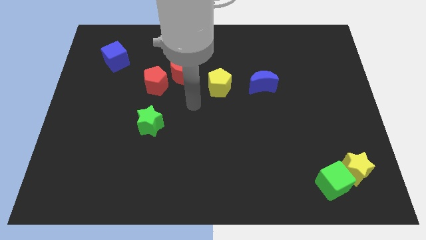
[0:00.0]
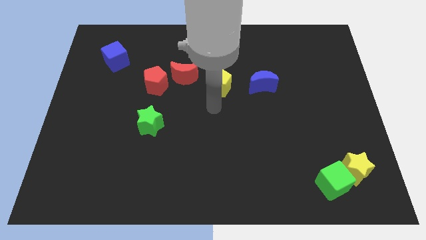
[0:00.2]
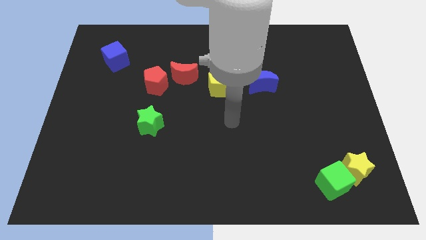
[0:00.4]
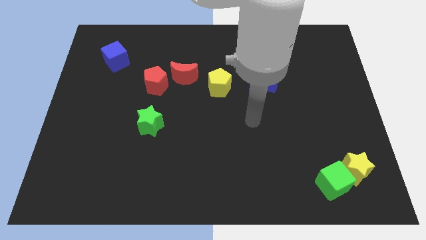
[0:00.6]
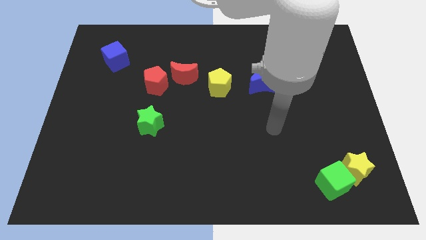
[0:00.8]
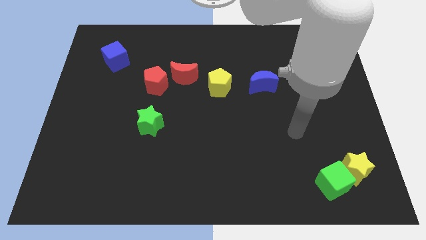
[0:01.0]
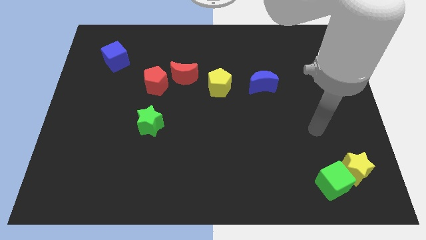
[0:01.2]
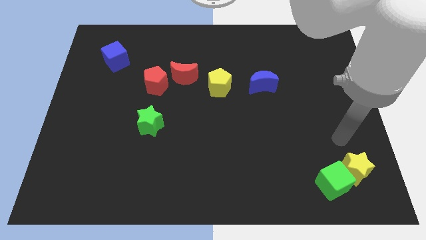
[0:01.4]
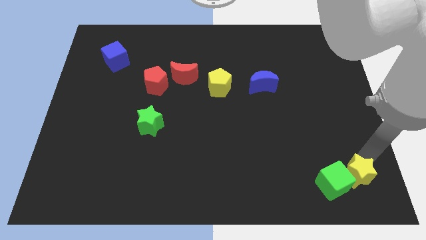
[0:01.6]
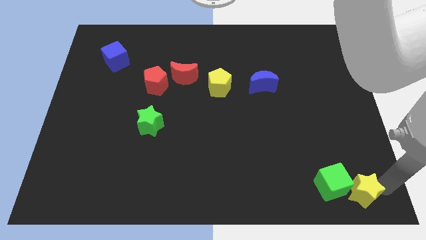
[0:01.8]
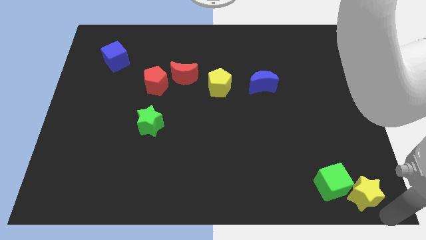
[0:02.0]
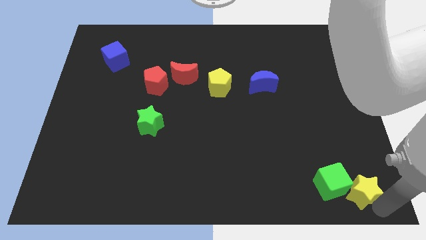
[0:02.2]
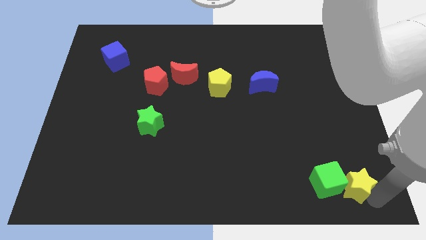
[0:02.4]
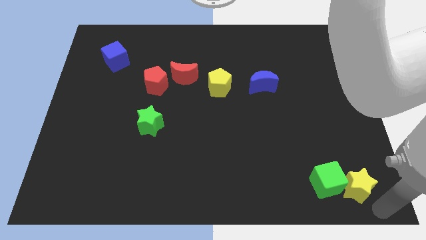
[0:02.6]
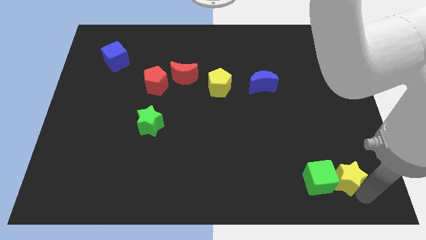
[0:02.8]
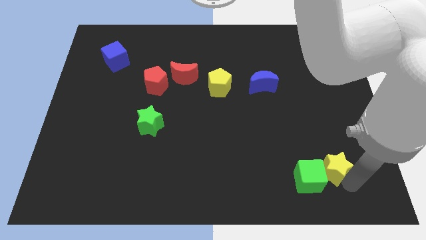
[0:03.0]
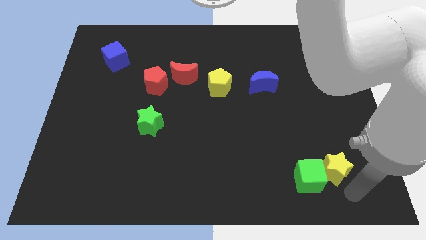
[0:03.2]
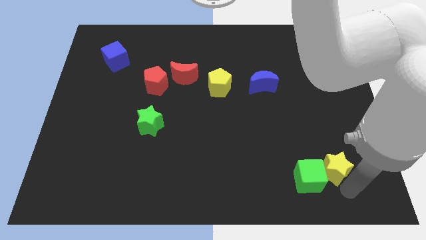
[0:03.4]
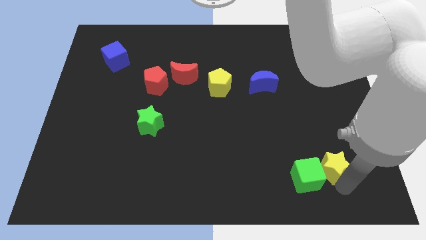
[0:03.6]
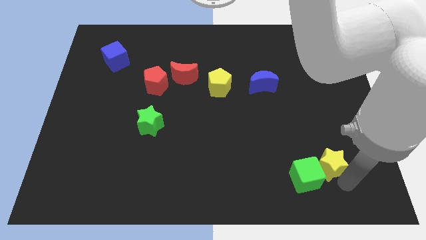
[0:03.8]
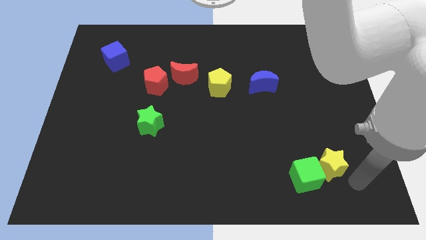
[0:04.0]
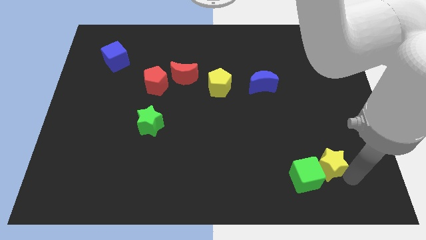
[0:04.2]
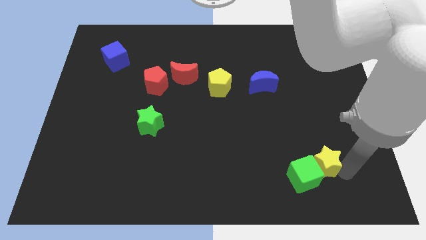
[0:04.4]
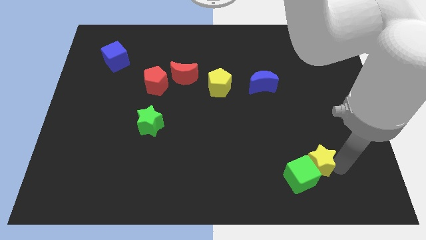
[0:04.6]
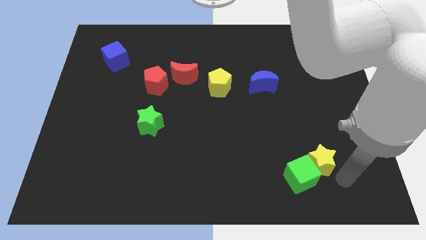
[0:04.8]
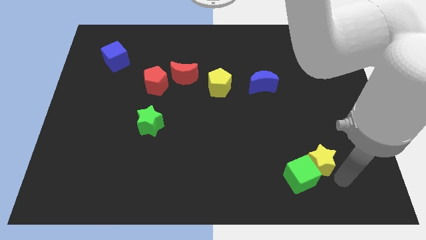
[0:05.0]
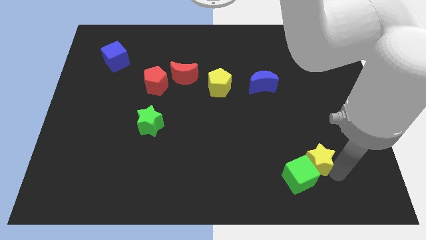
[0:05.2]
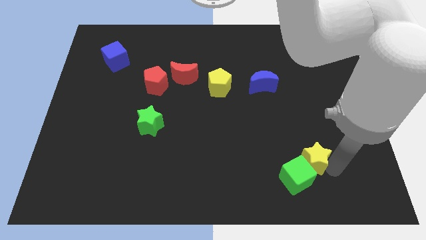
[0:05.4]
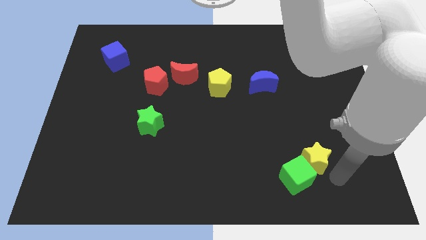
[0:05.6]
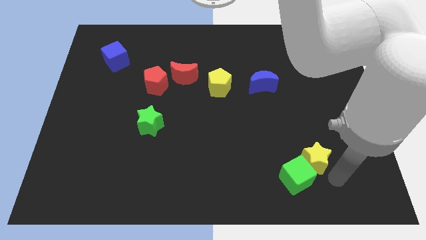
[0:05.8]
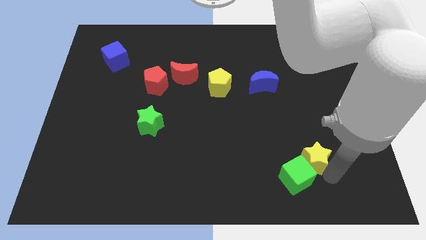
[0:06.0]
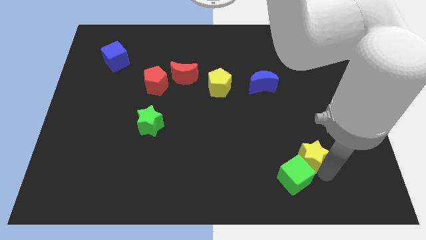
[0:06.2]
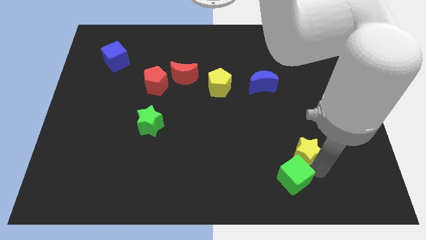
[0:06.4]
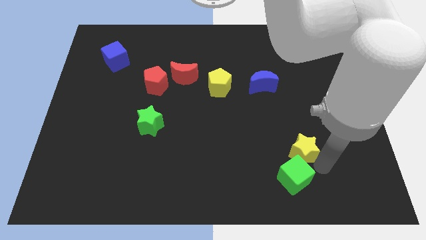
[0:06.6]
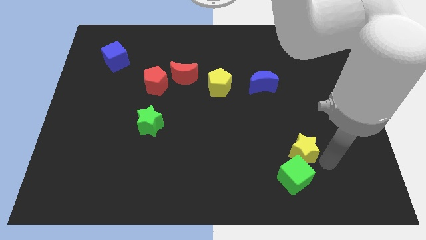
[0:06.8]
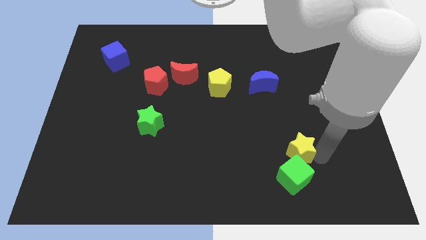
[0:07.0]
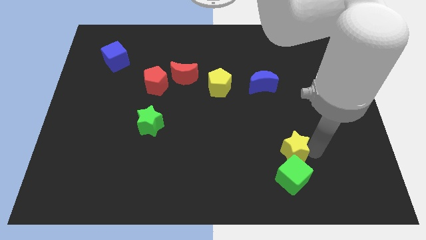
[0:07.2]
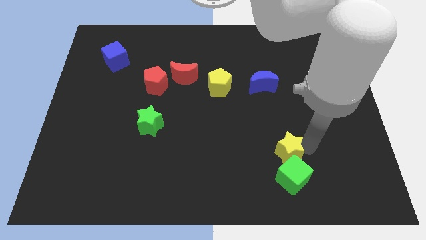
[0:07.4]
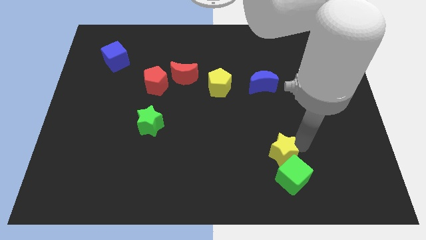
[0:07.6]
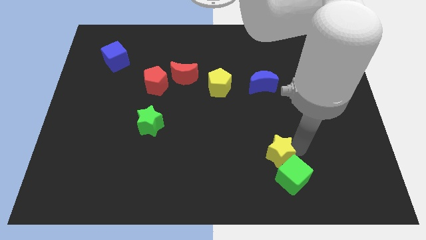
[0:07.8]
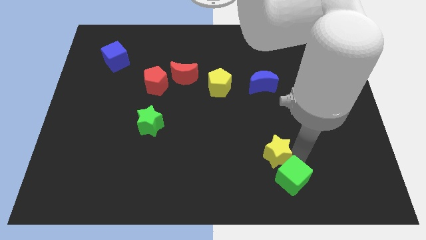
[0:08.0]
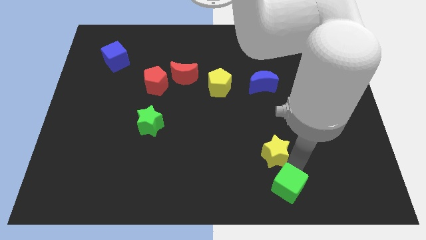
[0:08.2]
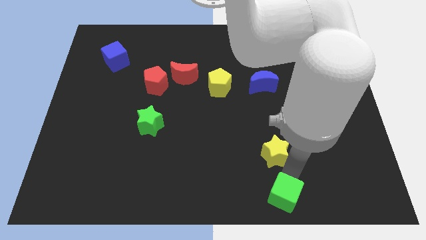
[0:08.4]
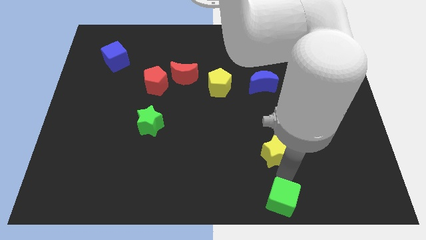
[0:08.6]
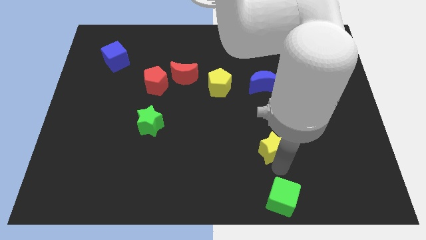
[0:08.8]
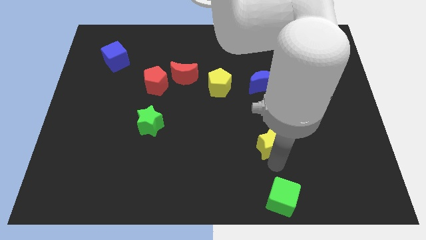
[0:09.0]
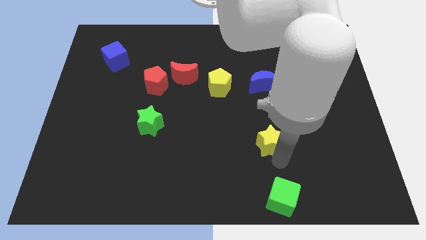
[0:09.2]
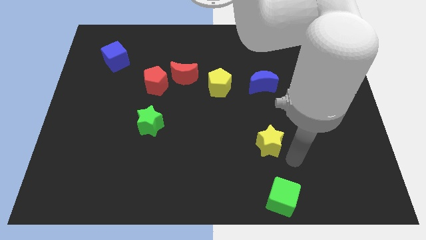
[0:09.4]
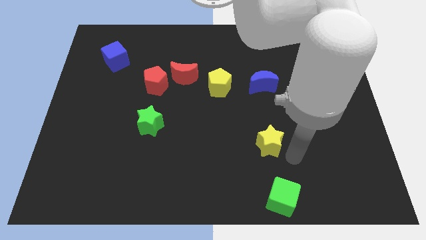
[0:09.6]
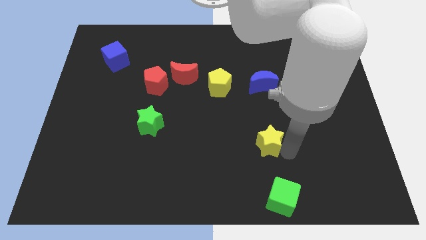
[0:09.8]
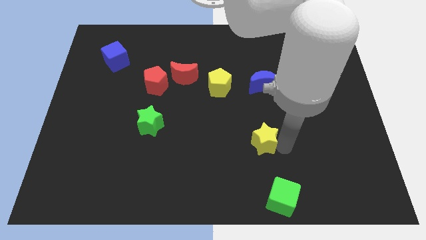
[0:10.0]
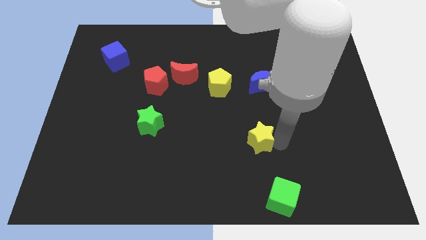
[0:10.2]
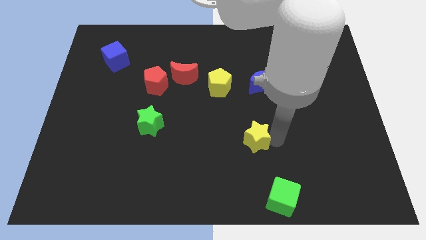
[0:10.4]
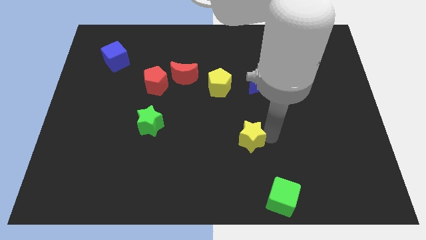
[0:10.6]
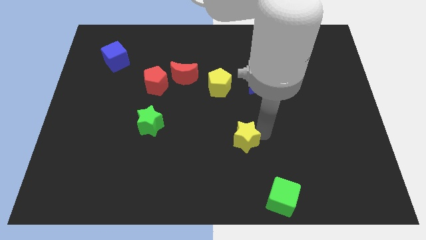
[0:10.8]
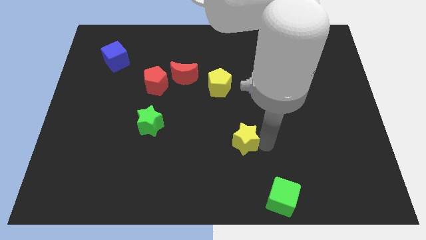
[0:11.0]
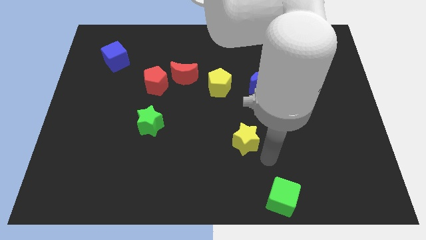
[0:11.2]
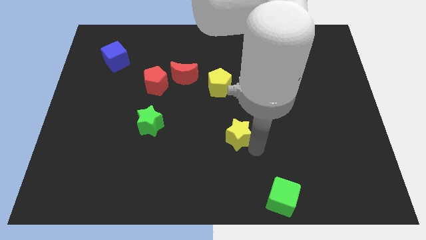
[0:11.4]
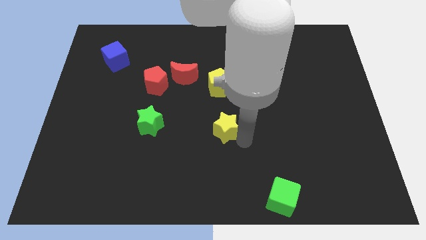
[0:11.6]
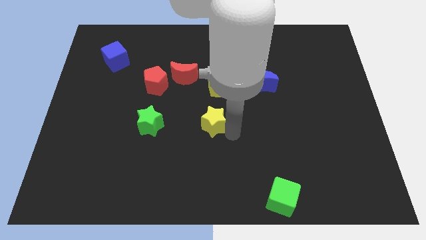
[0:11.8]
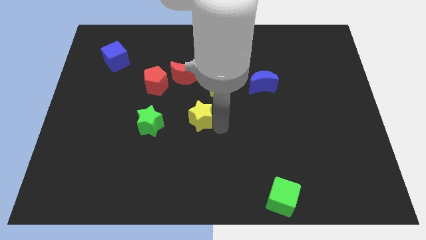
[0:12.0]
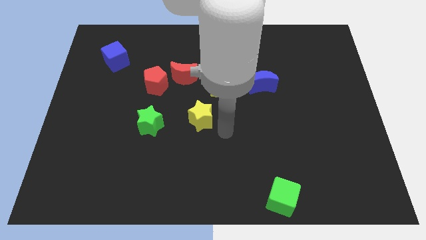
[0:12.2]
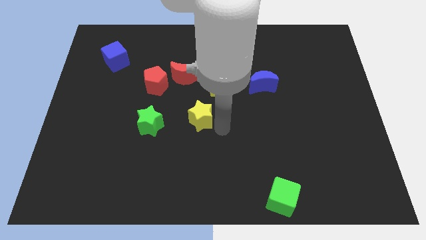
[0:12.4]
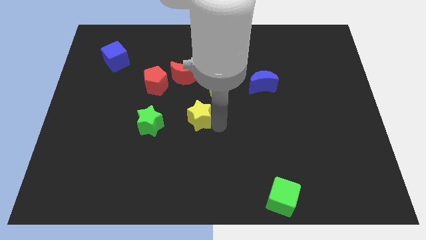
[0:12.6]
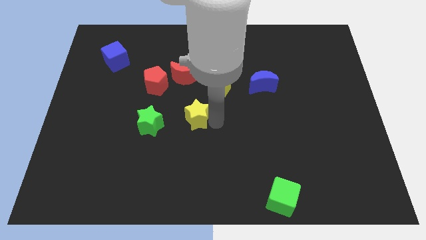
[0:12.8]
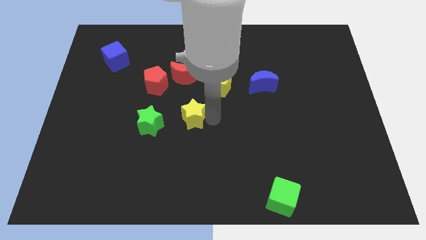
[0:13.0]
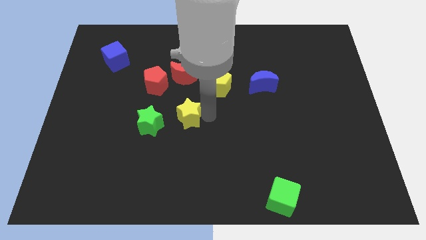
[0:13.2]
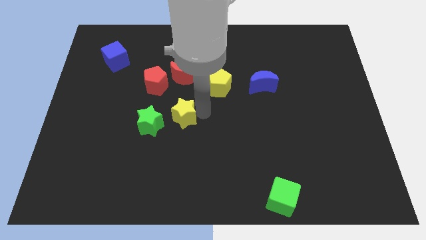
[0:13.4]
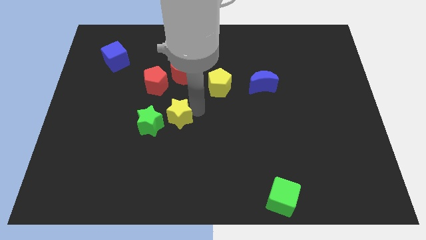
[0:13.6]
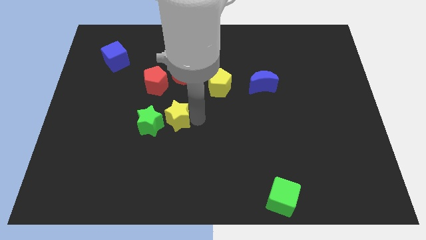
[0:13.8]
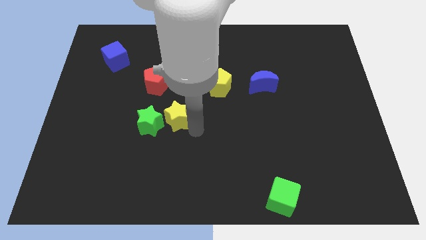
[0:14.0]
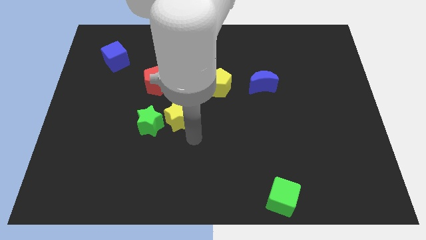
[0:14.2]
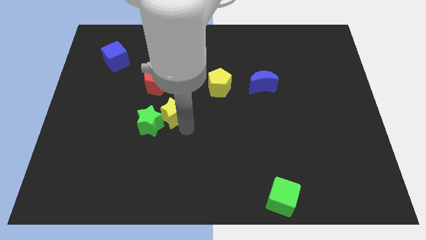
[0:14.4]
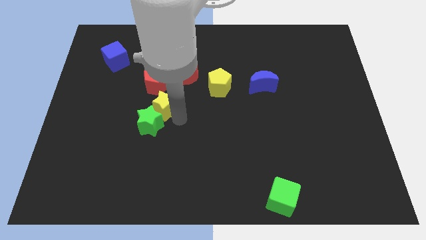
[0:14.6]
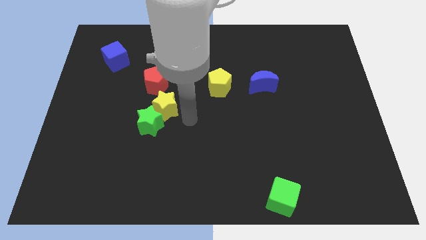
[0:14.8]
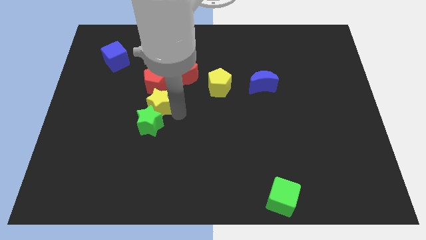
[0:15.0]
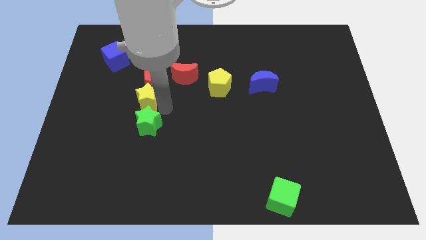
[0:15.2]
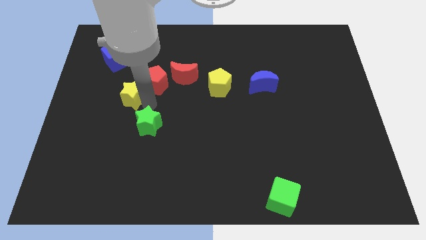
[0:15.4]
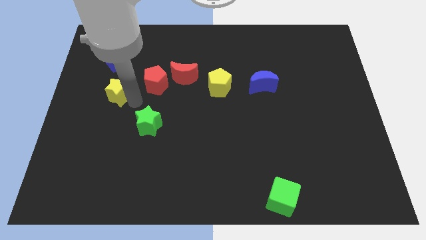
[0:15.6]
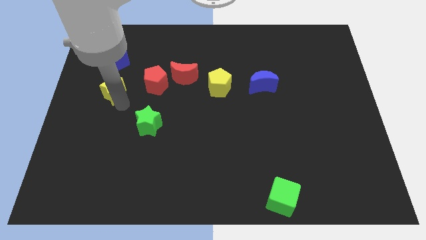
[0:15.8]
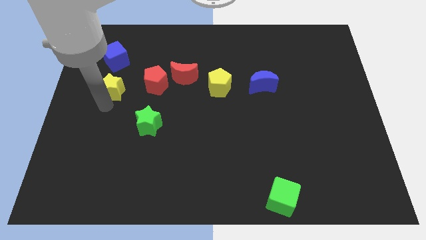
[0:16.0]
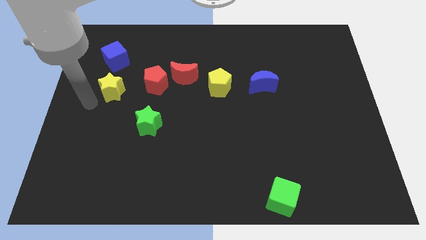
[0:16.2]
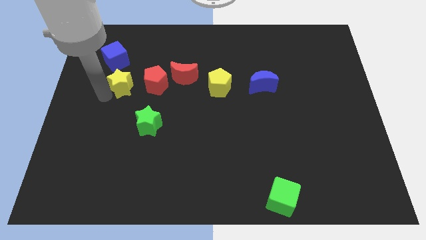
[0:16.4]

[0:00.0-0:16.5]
push the yellow star just left of the red moon

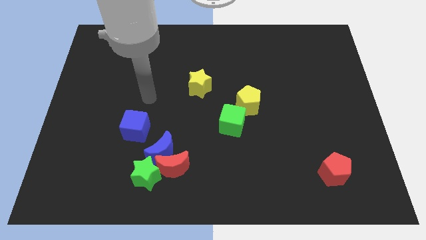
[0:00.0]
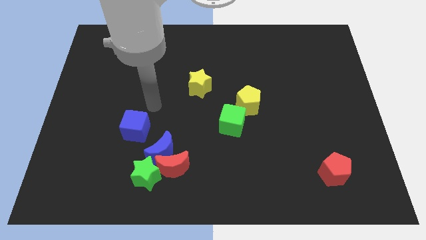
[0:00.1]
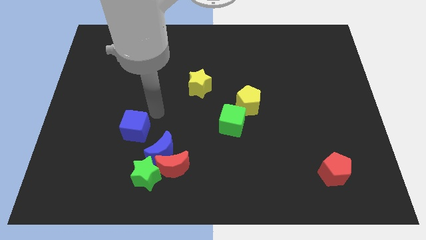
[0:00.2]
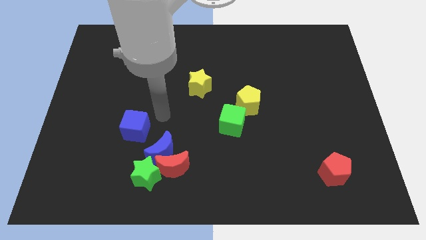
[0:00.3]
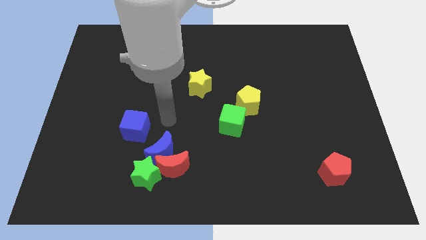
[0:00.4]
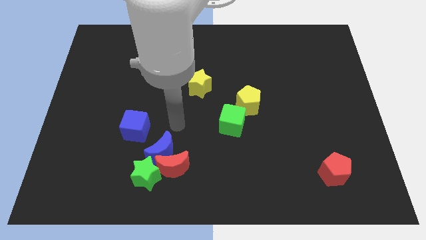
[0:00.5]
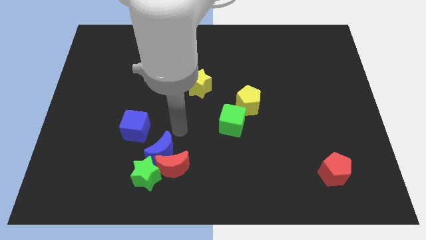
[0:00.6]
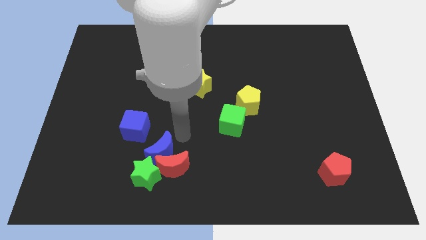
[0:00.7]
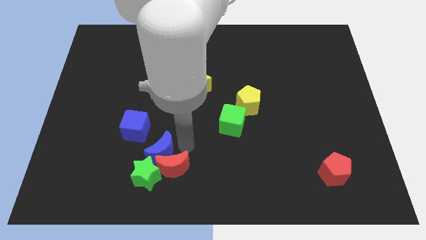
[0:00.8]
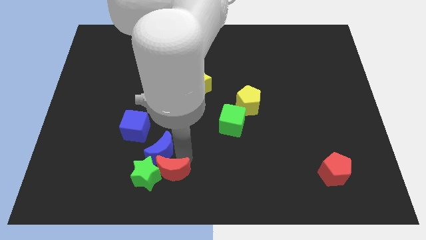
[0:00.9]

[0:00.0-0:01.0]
push the green star to the top left side of the red moon
